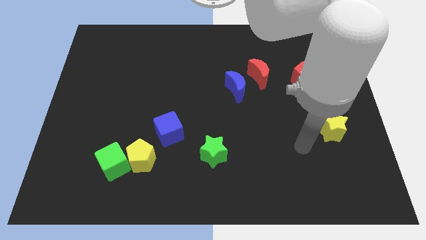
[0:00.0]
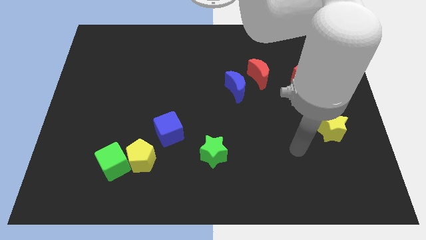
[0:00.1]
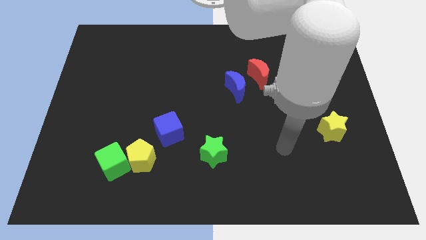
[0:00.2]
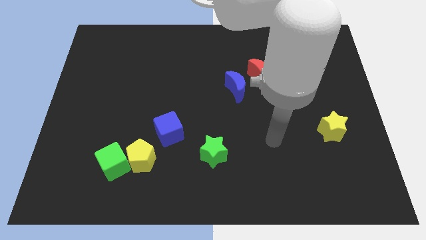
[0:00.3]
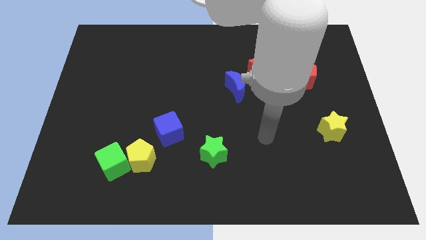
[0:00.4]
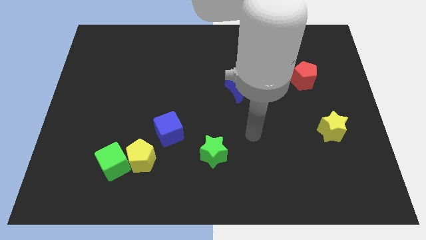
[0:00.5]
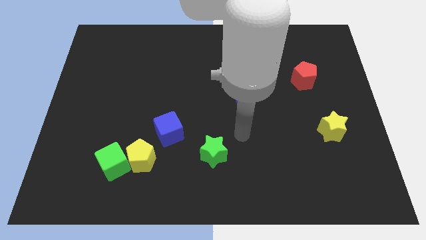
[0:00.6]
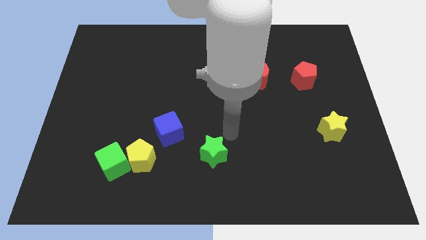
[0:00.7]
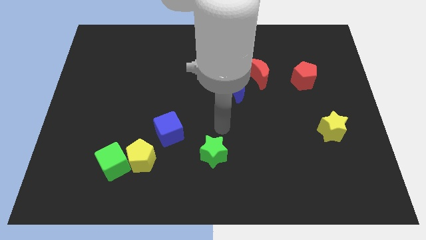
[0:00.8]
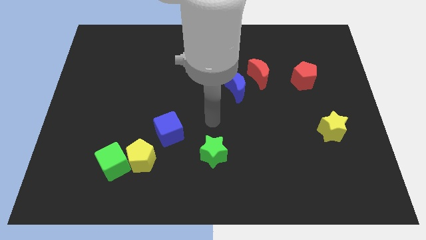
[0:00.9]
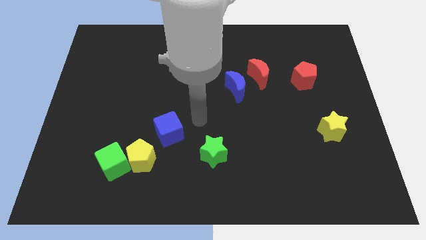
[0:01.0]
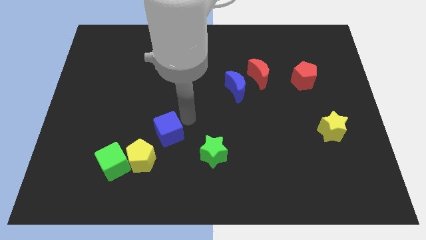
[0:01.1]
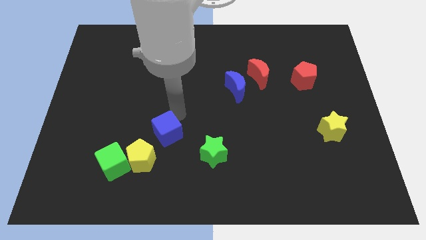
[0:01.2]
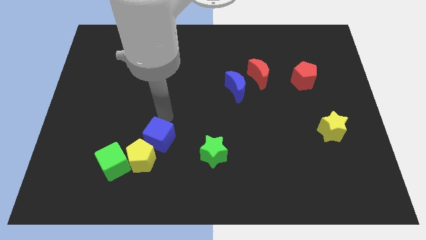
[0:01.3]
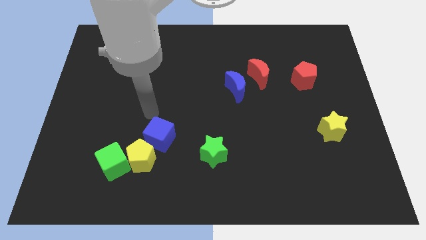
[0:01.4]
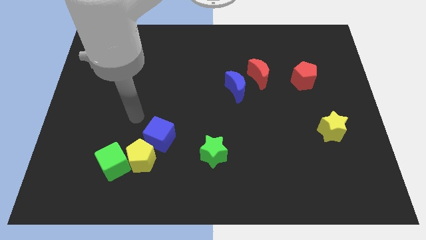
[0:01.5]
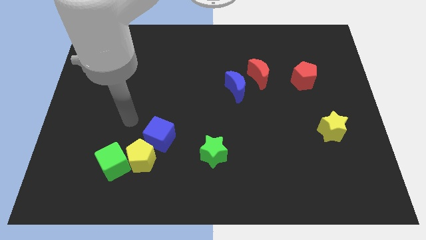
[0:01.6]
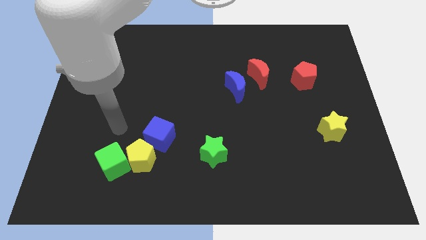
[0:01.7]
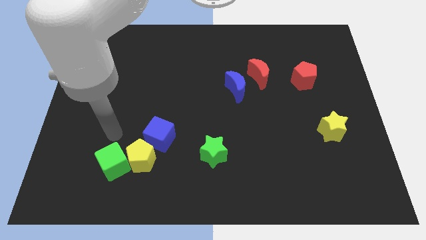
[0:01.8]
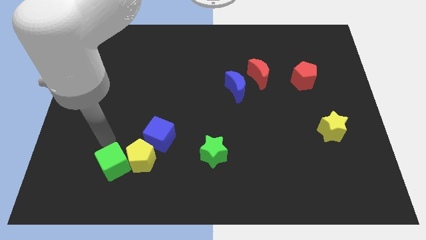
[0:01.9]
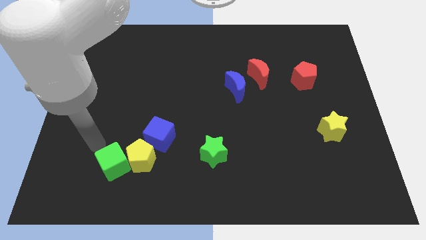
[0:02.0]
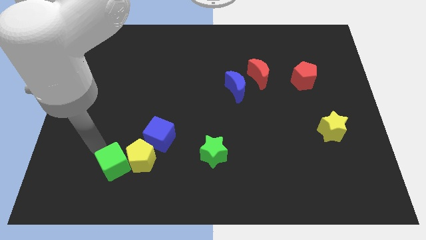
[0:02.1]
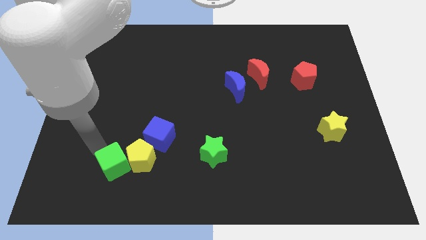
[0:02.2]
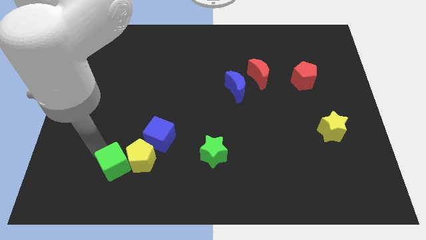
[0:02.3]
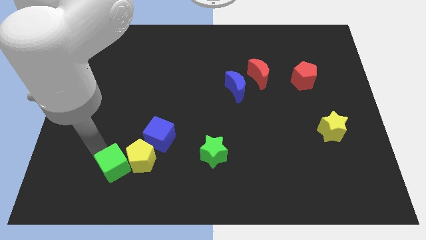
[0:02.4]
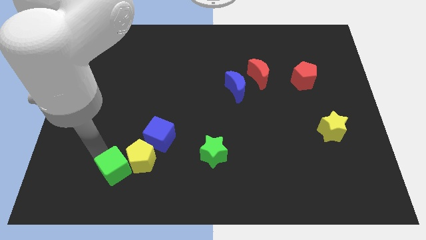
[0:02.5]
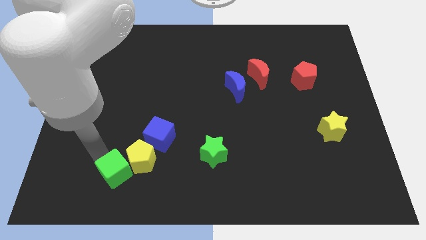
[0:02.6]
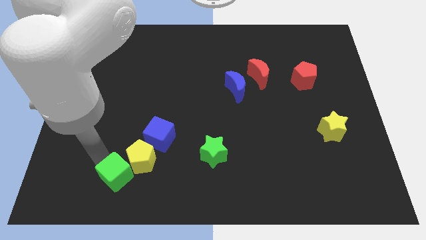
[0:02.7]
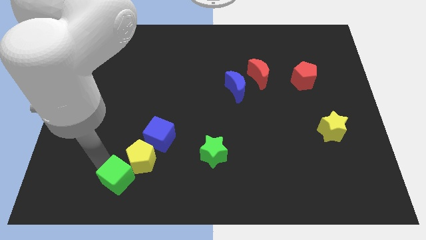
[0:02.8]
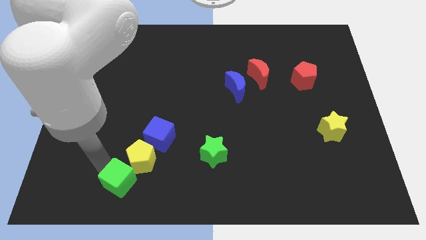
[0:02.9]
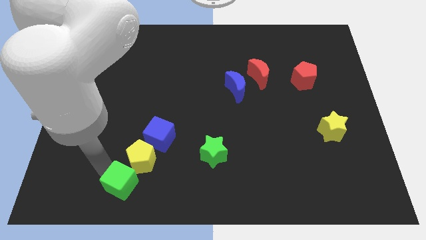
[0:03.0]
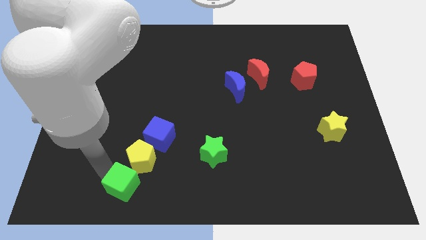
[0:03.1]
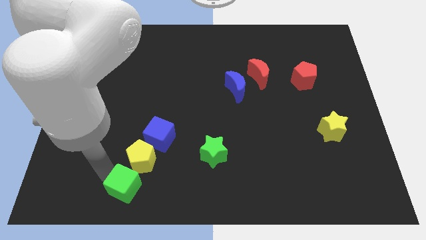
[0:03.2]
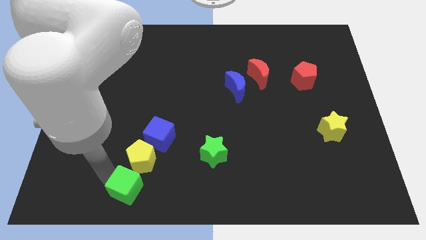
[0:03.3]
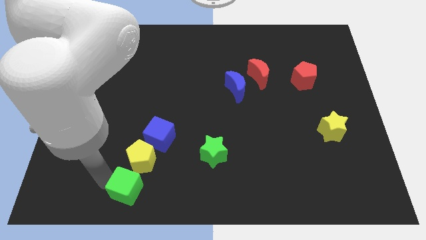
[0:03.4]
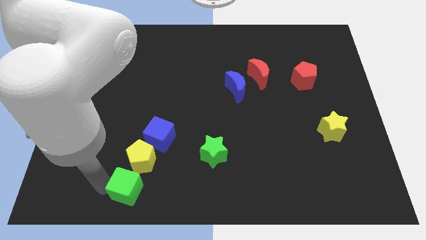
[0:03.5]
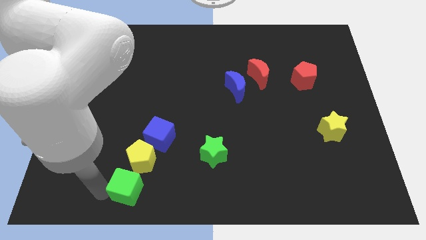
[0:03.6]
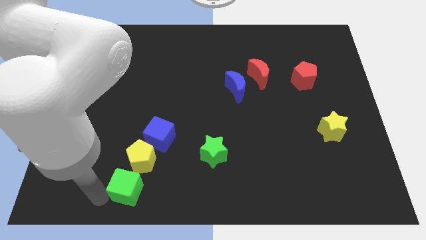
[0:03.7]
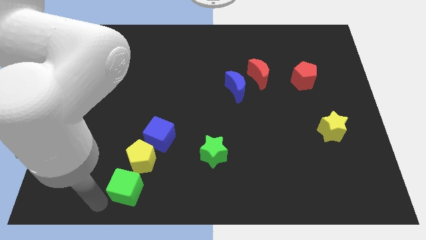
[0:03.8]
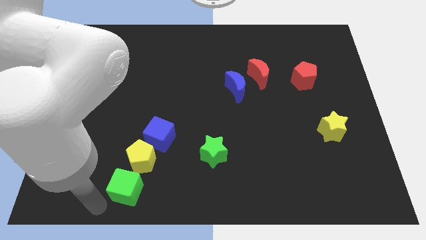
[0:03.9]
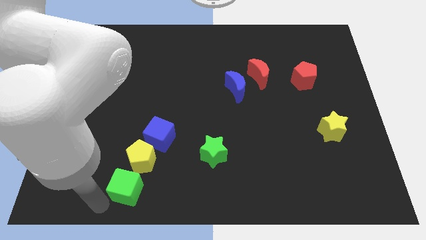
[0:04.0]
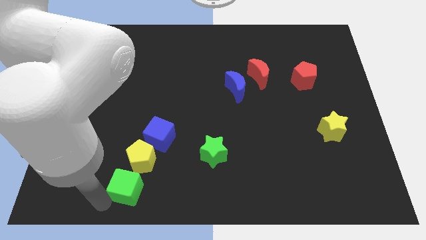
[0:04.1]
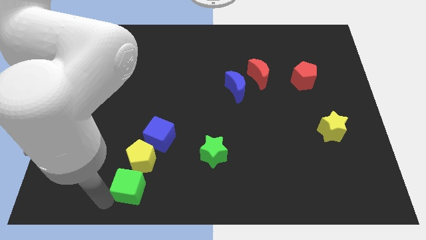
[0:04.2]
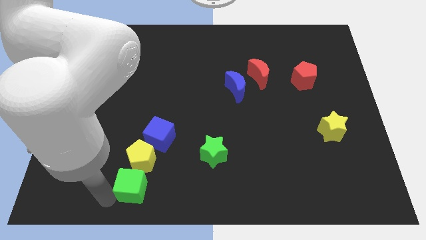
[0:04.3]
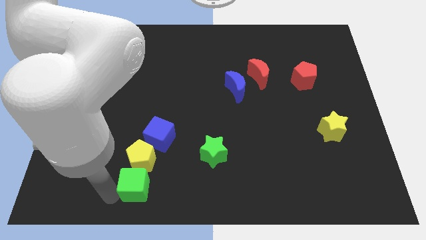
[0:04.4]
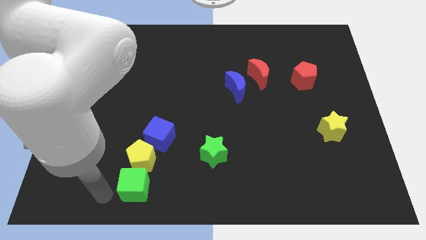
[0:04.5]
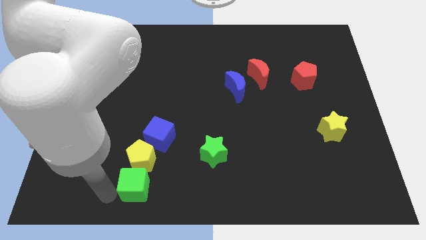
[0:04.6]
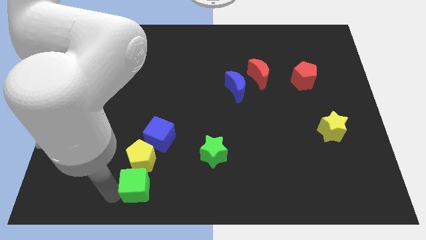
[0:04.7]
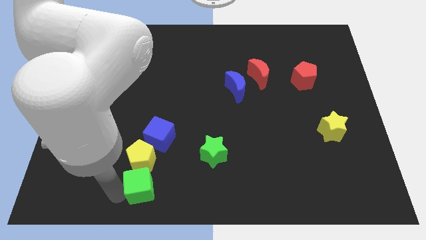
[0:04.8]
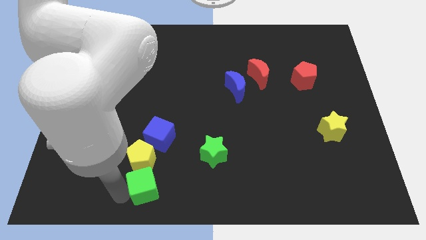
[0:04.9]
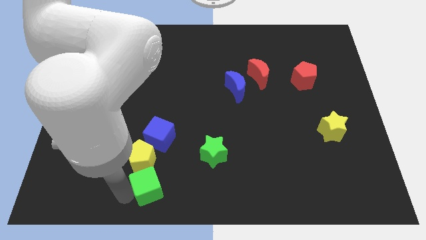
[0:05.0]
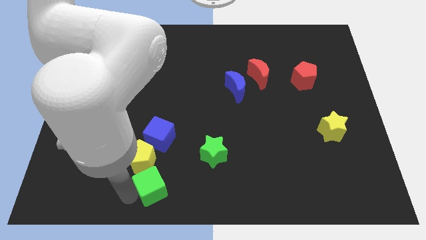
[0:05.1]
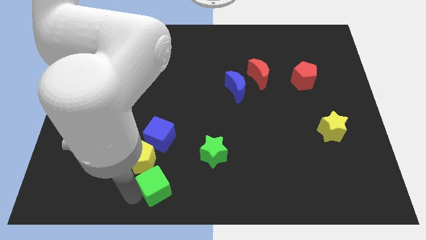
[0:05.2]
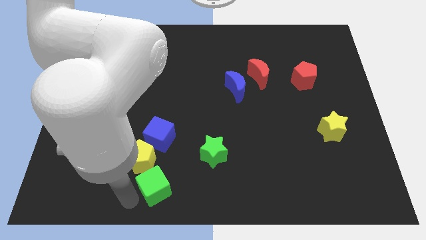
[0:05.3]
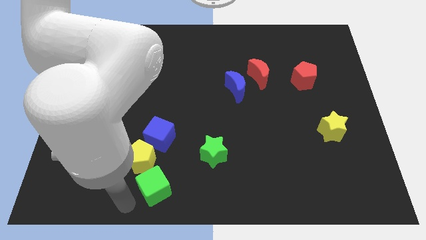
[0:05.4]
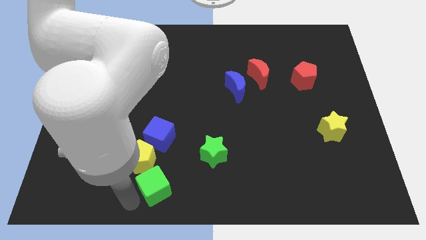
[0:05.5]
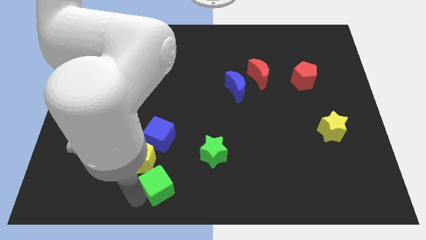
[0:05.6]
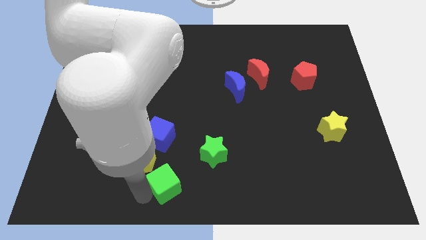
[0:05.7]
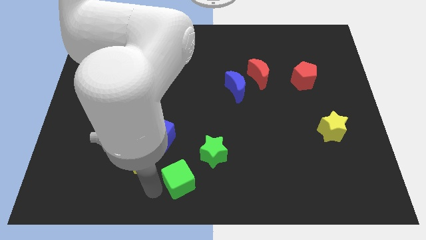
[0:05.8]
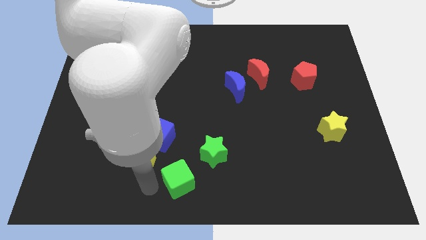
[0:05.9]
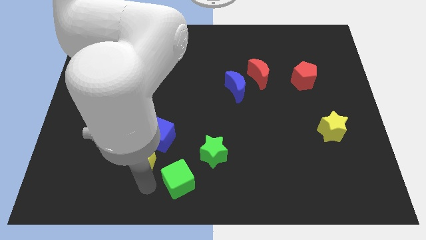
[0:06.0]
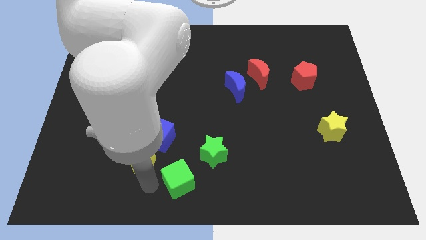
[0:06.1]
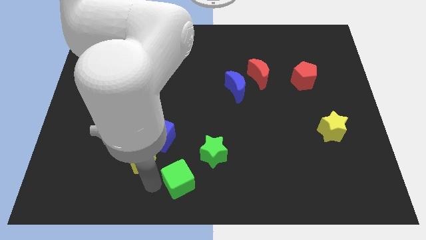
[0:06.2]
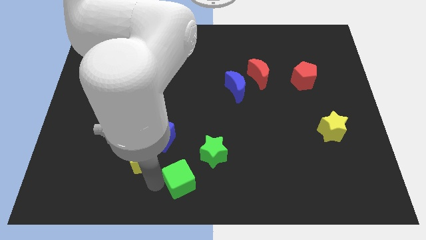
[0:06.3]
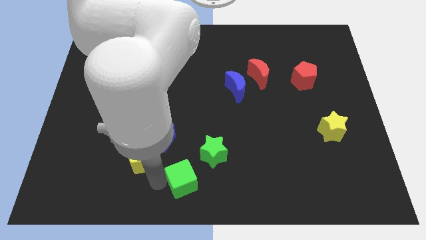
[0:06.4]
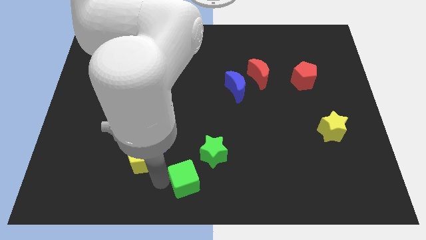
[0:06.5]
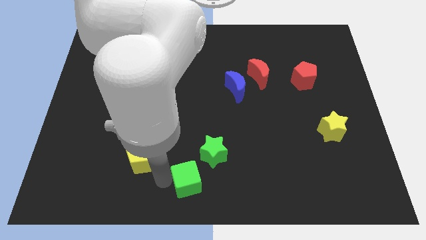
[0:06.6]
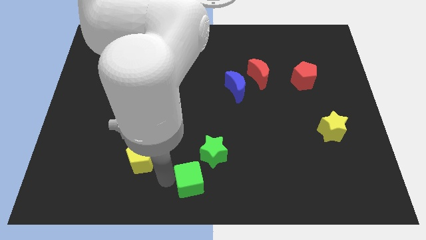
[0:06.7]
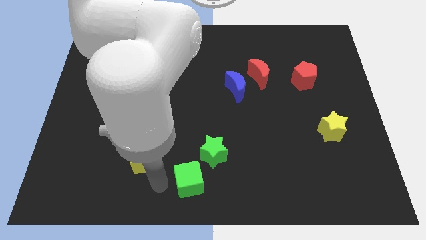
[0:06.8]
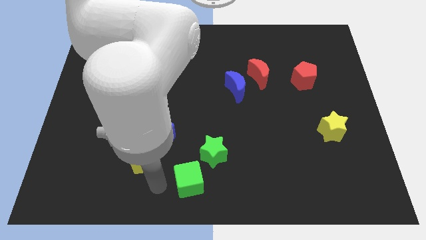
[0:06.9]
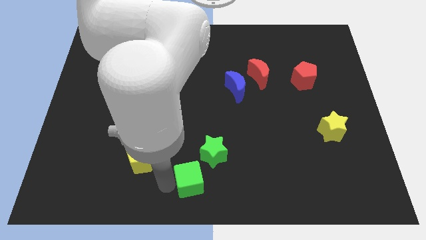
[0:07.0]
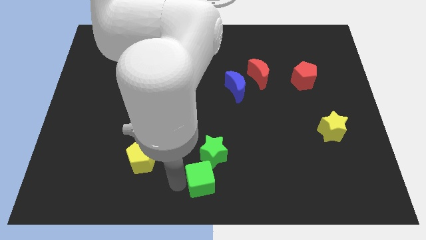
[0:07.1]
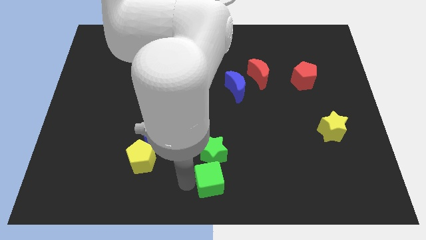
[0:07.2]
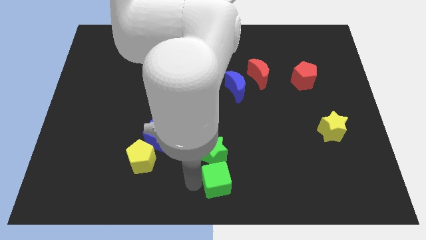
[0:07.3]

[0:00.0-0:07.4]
push the green cube to the right

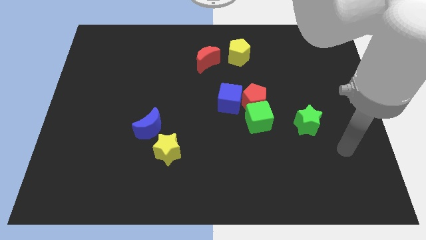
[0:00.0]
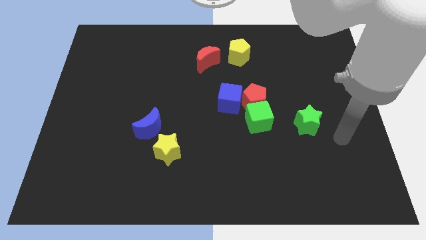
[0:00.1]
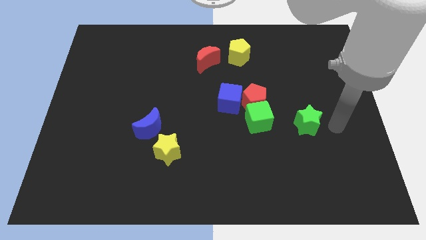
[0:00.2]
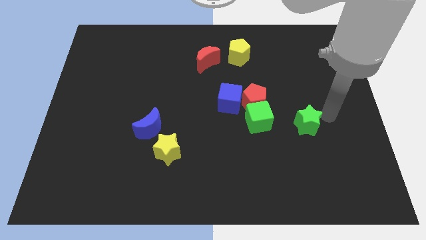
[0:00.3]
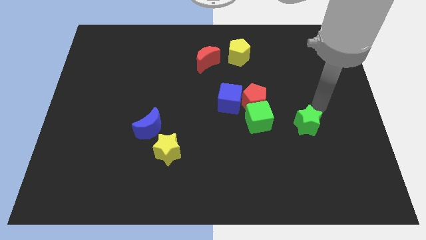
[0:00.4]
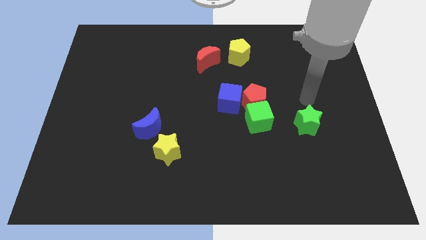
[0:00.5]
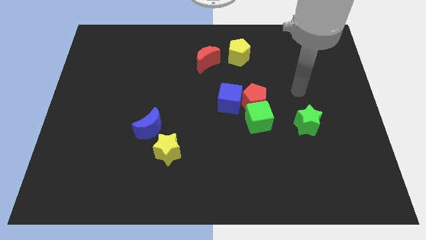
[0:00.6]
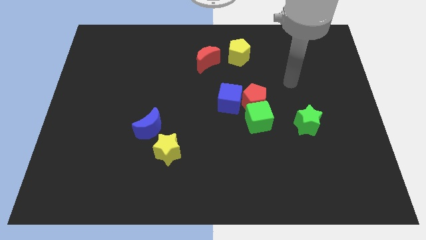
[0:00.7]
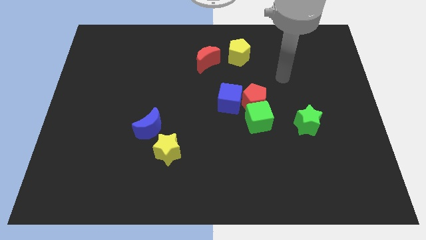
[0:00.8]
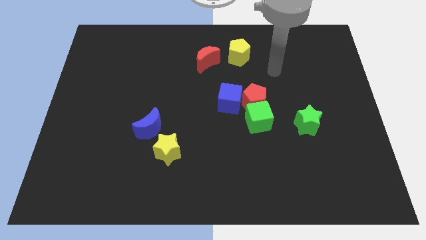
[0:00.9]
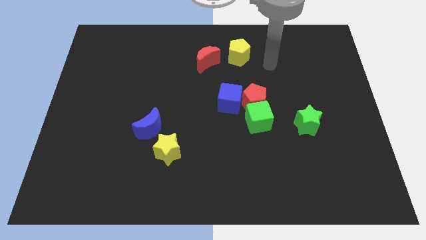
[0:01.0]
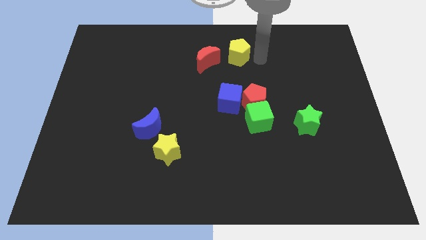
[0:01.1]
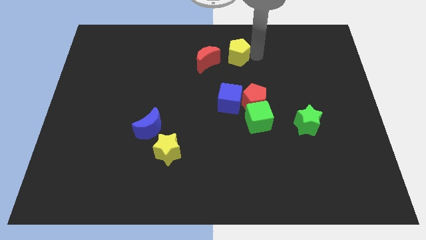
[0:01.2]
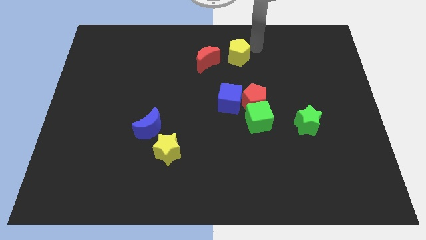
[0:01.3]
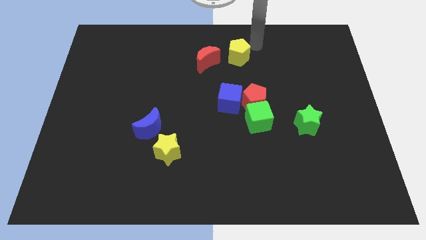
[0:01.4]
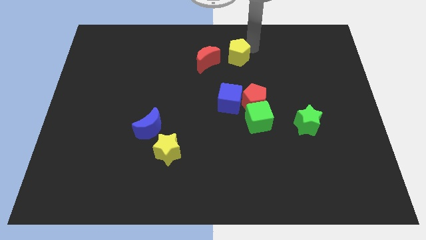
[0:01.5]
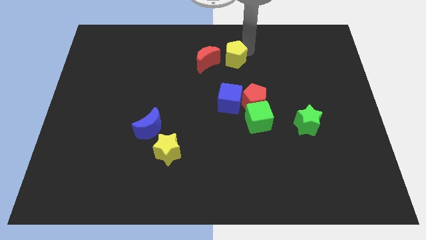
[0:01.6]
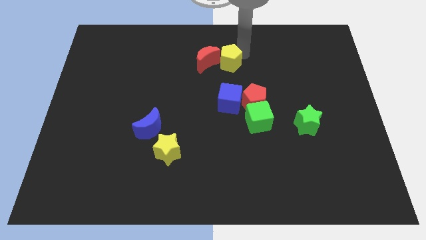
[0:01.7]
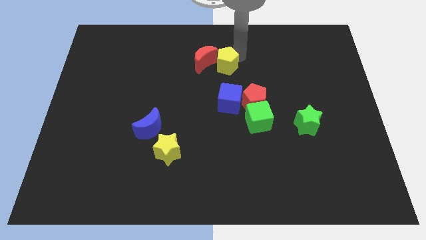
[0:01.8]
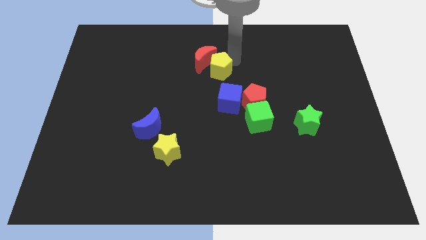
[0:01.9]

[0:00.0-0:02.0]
slightly push the yellow pentagon down and left
